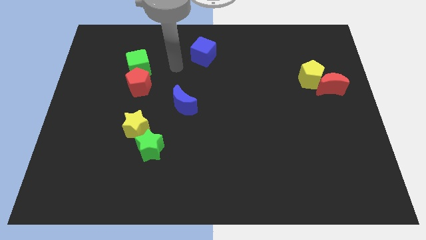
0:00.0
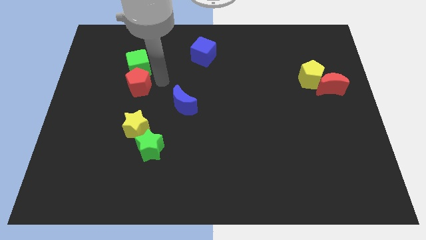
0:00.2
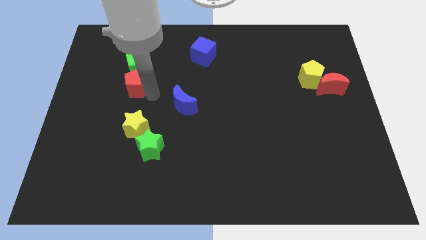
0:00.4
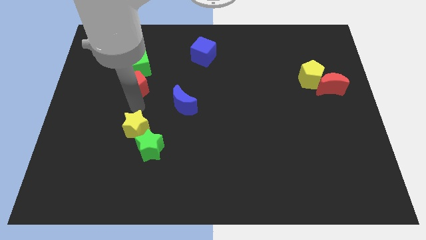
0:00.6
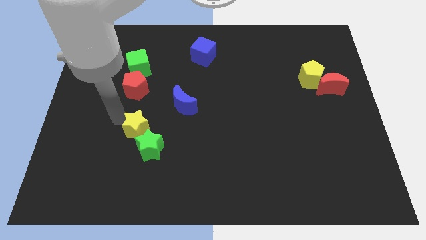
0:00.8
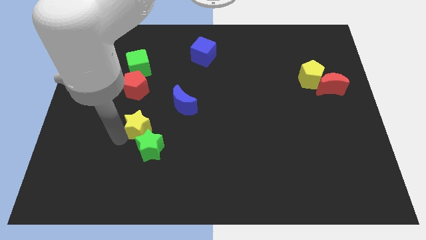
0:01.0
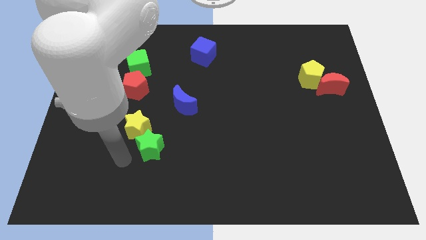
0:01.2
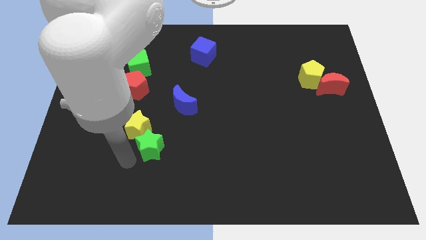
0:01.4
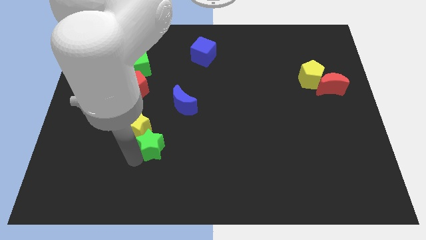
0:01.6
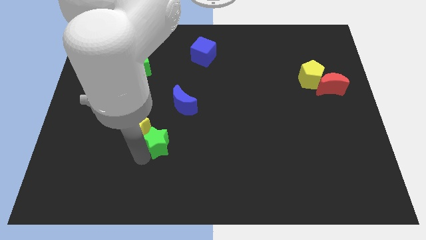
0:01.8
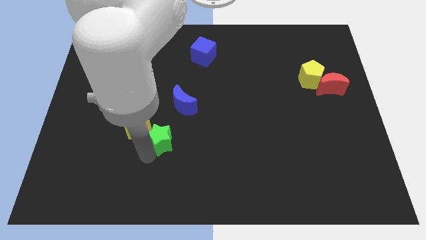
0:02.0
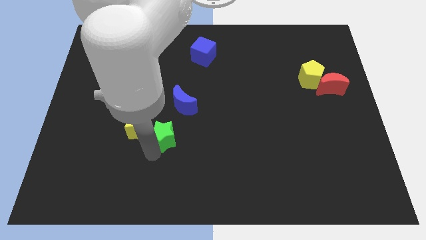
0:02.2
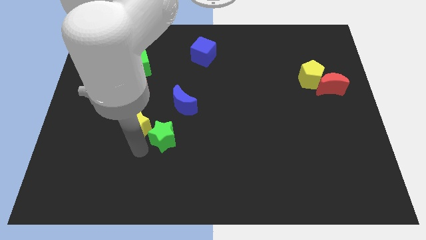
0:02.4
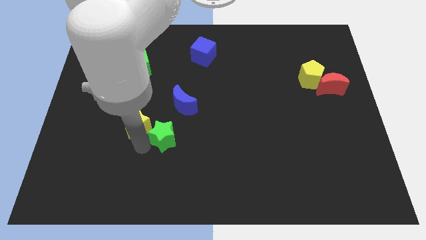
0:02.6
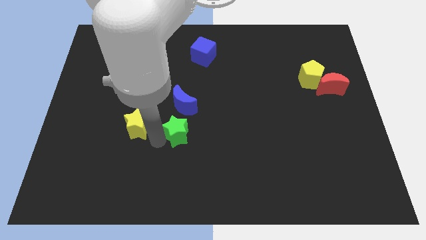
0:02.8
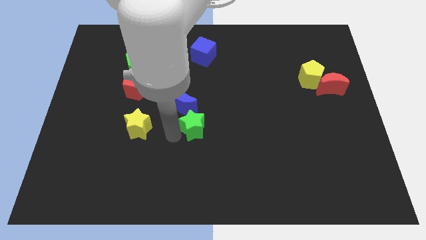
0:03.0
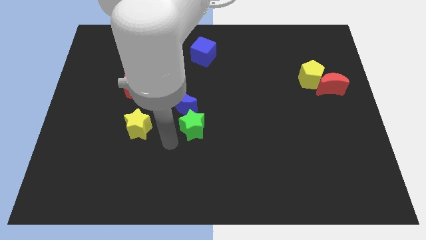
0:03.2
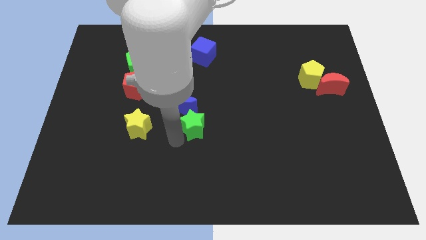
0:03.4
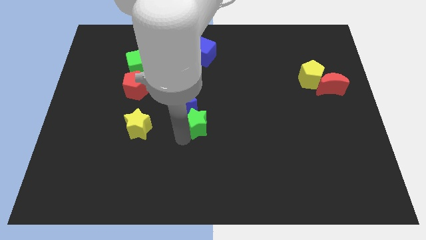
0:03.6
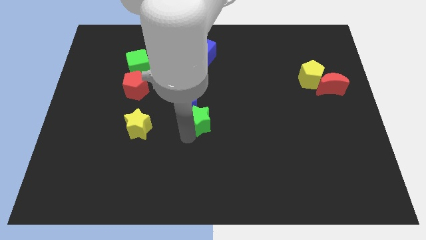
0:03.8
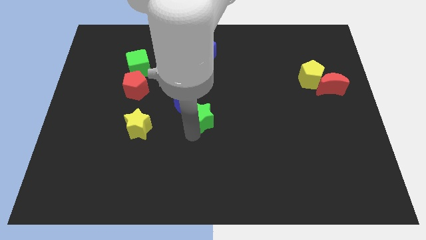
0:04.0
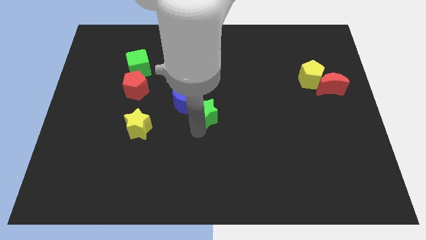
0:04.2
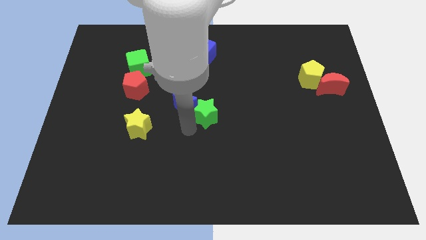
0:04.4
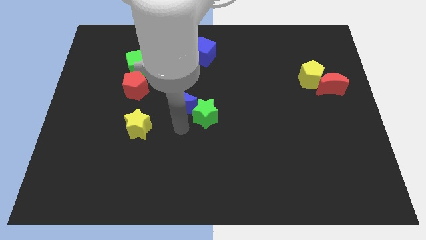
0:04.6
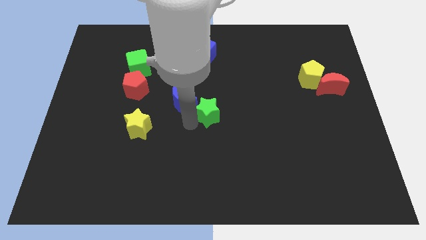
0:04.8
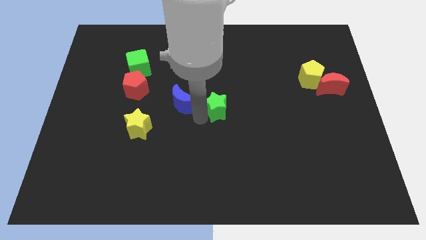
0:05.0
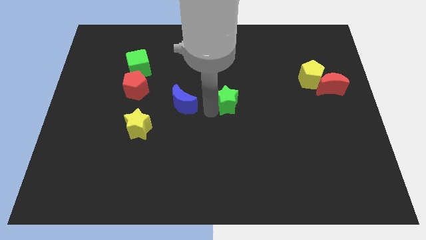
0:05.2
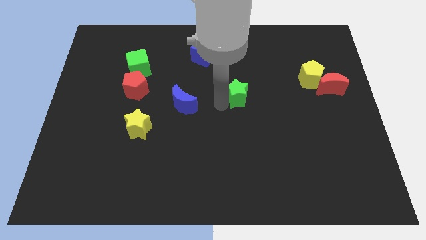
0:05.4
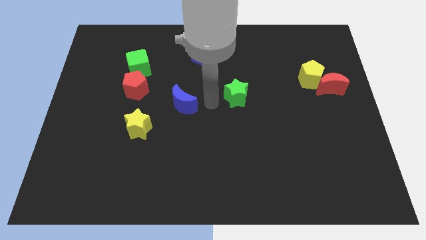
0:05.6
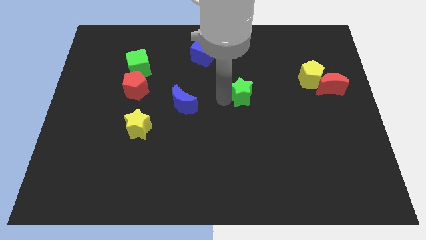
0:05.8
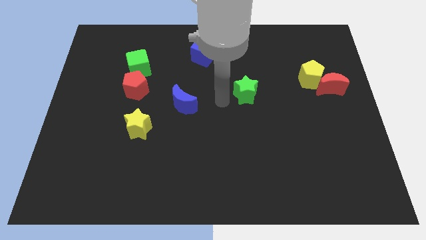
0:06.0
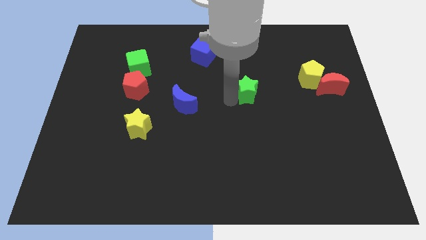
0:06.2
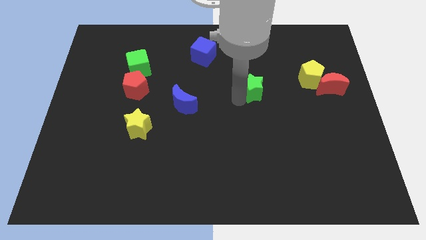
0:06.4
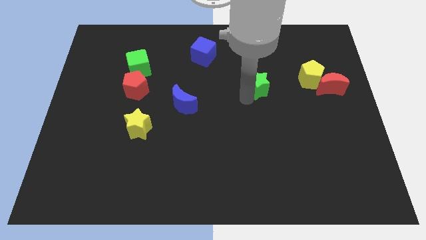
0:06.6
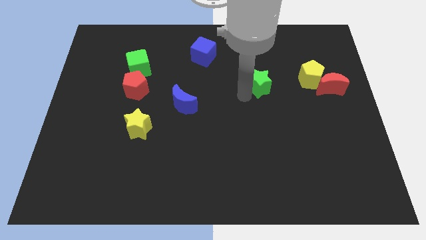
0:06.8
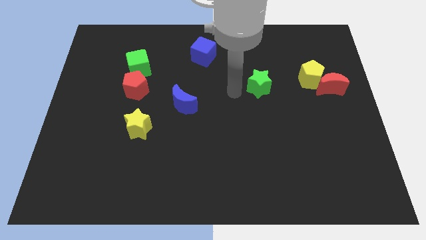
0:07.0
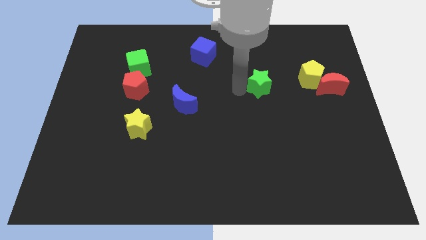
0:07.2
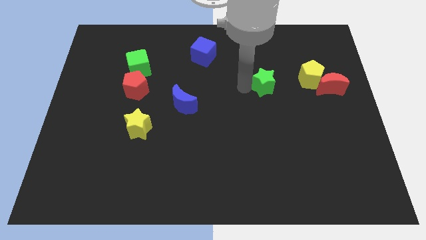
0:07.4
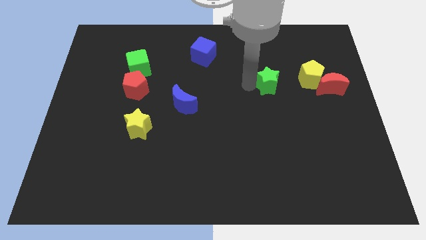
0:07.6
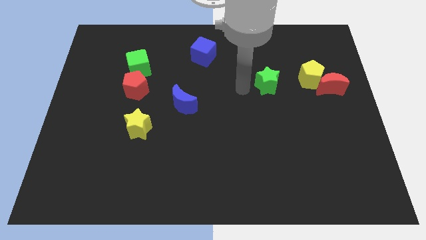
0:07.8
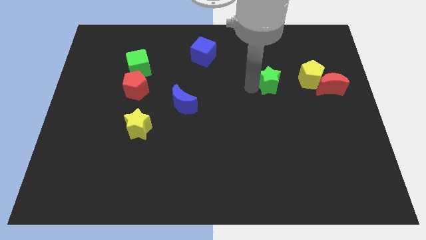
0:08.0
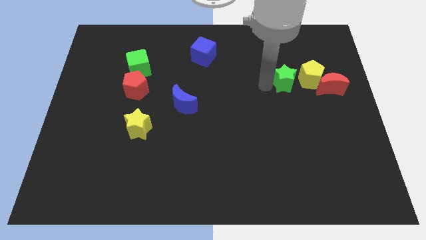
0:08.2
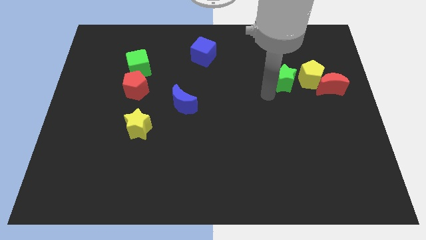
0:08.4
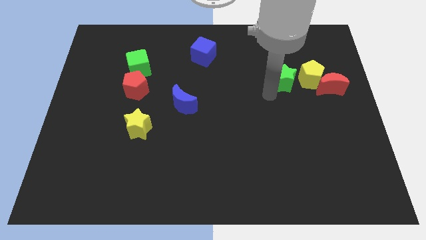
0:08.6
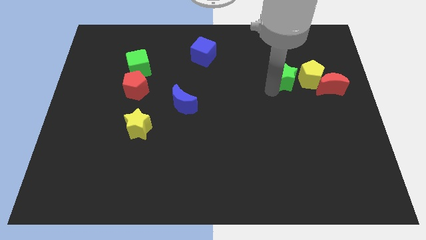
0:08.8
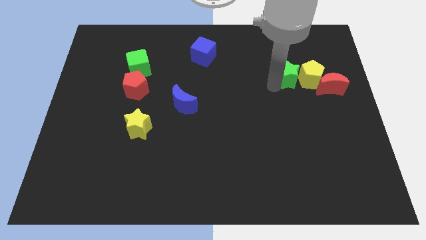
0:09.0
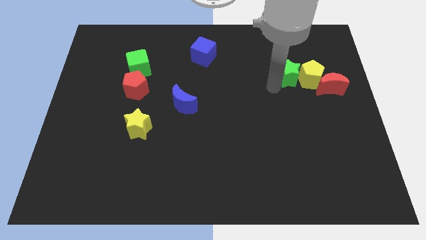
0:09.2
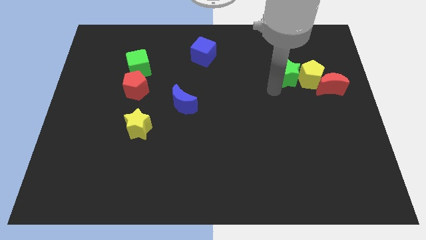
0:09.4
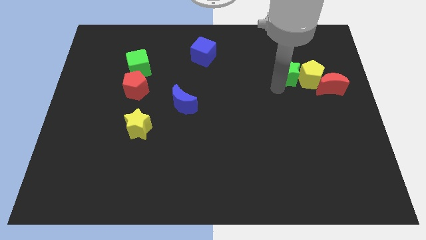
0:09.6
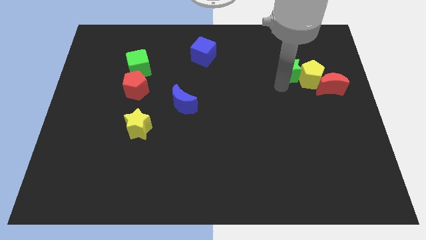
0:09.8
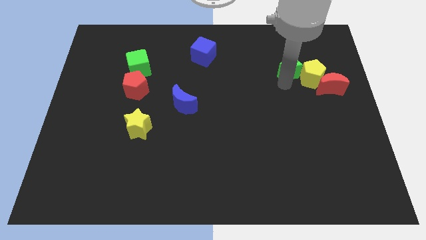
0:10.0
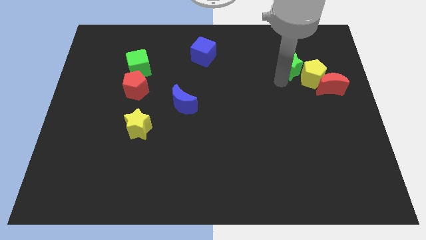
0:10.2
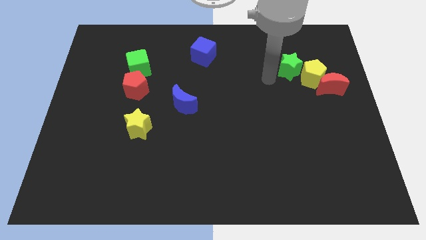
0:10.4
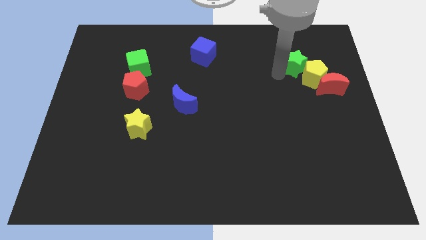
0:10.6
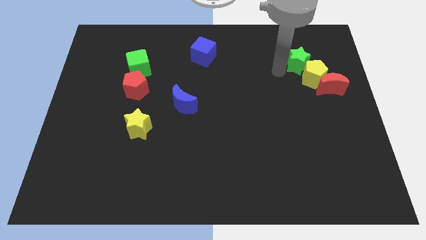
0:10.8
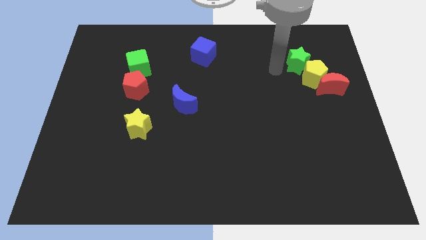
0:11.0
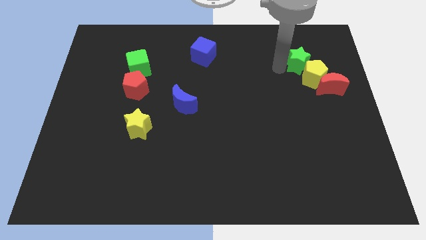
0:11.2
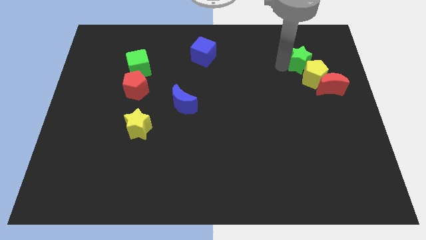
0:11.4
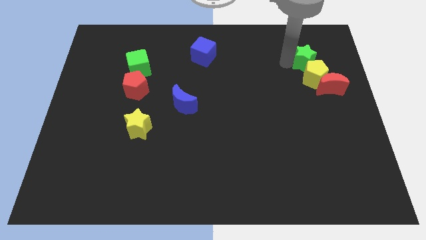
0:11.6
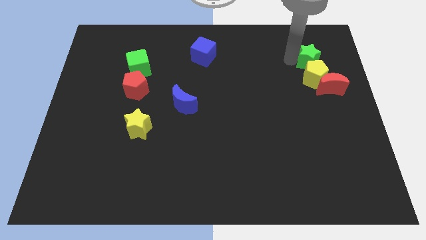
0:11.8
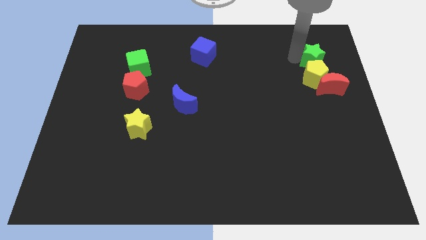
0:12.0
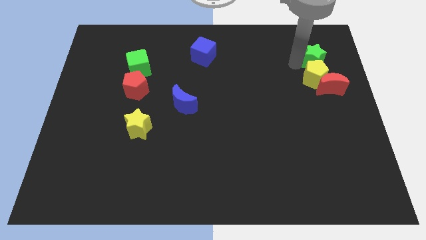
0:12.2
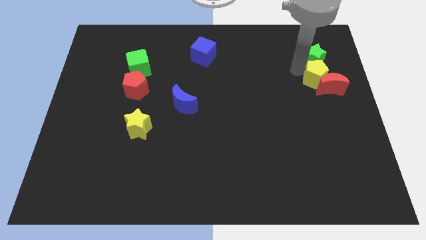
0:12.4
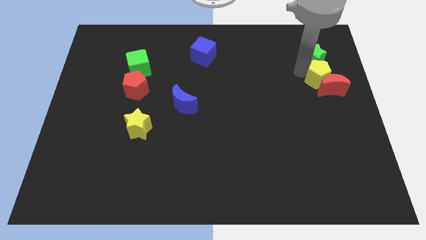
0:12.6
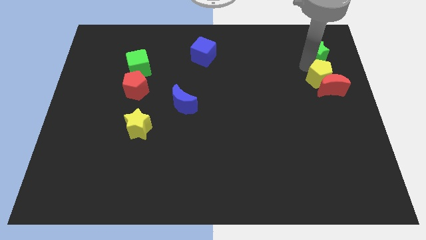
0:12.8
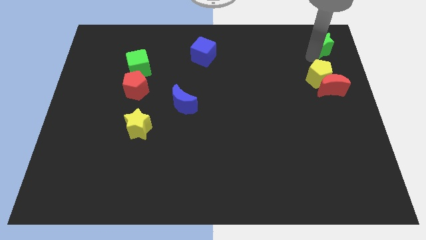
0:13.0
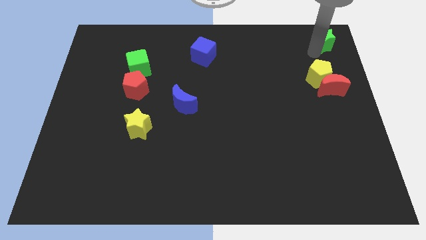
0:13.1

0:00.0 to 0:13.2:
slide the green star to the top right

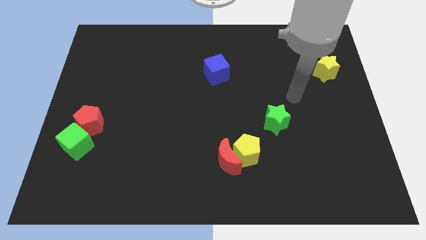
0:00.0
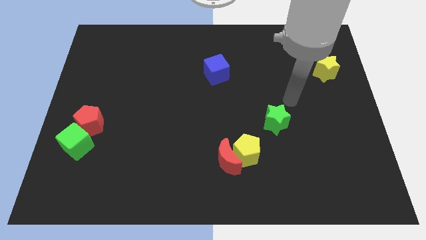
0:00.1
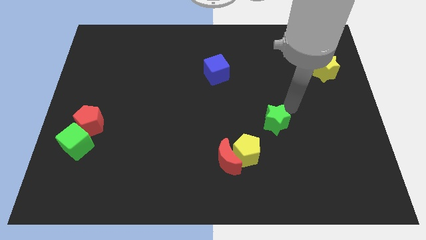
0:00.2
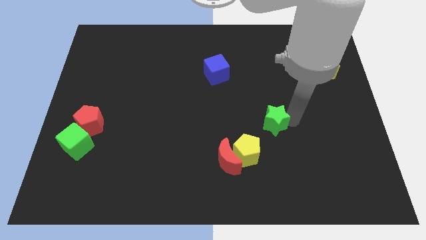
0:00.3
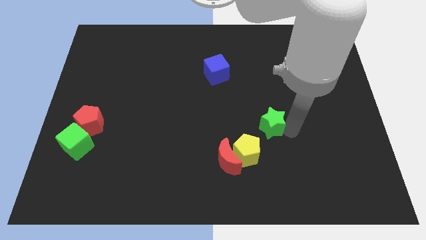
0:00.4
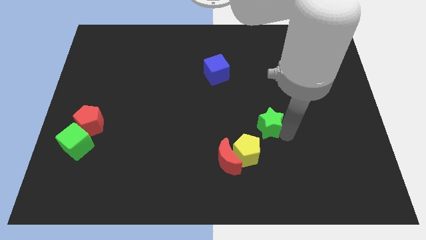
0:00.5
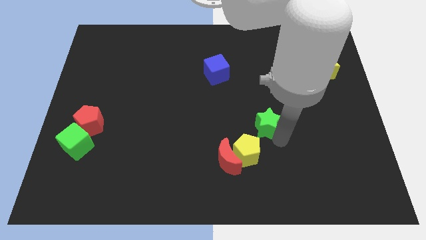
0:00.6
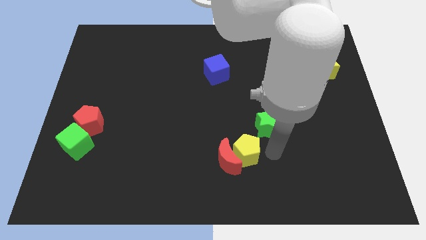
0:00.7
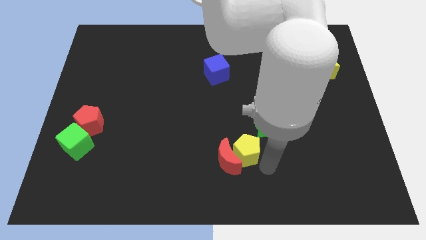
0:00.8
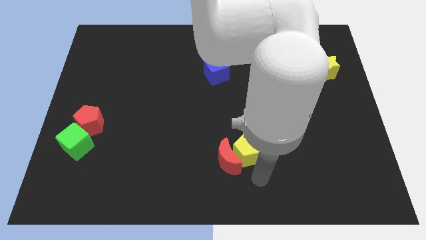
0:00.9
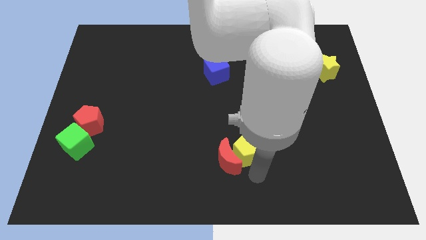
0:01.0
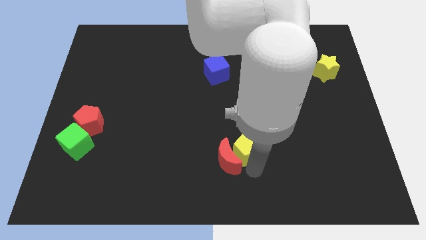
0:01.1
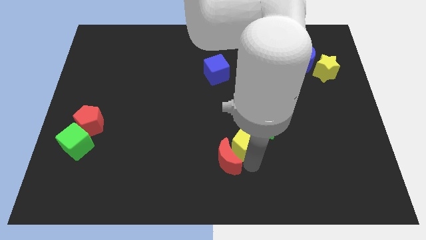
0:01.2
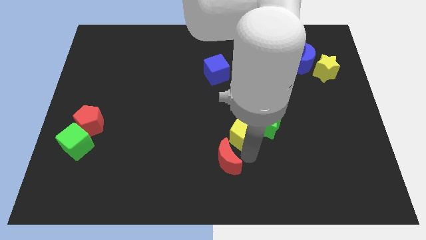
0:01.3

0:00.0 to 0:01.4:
slide the yellow pentagon to the center
